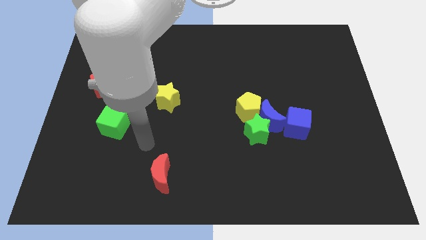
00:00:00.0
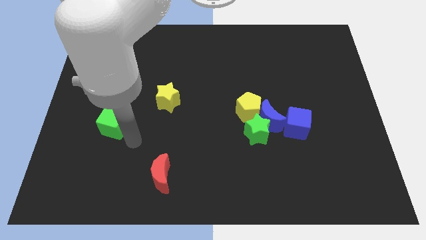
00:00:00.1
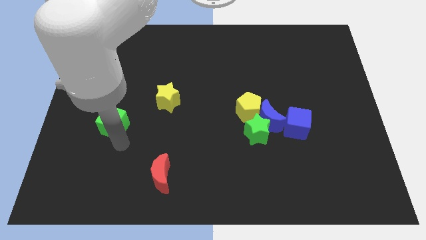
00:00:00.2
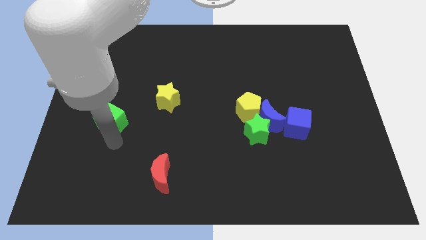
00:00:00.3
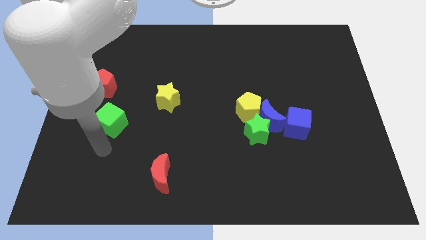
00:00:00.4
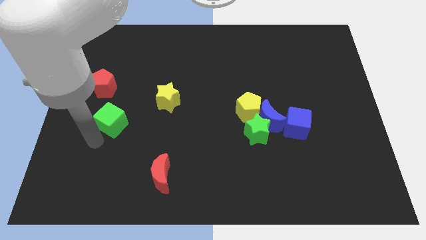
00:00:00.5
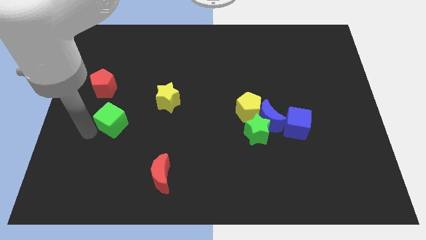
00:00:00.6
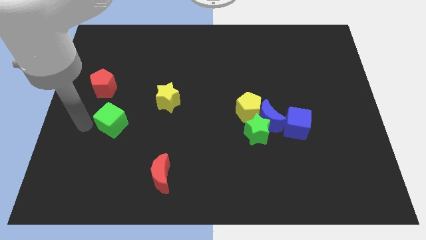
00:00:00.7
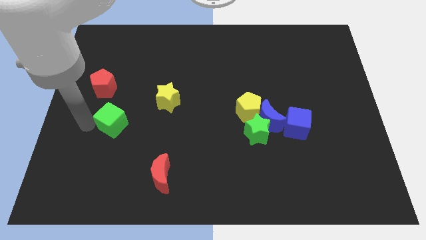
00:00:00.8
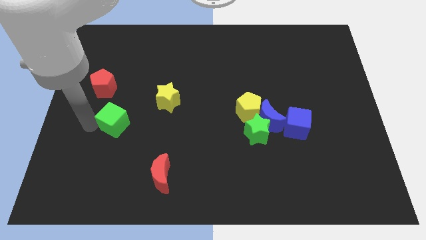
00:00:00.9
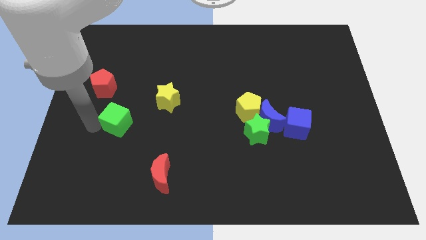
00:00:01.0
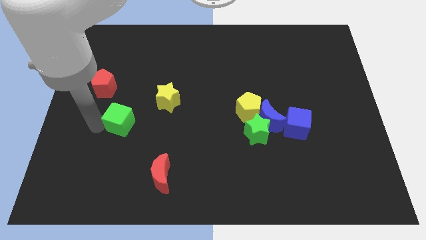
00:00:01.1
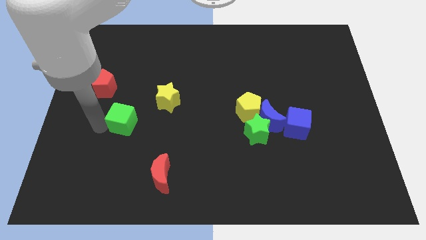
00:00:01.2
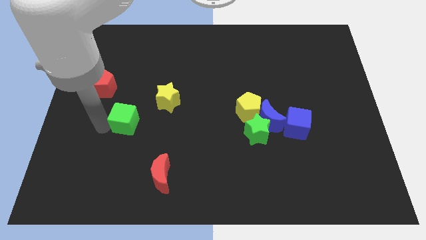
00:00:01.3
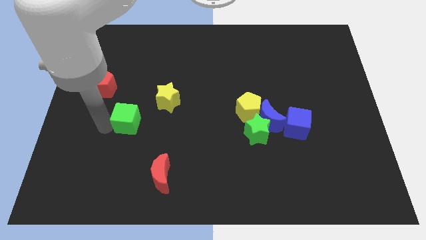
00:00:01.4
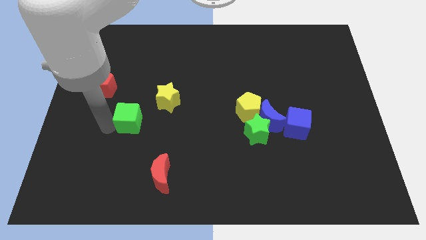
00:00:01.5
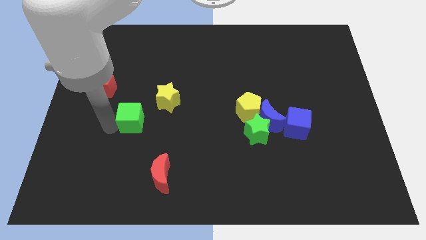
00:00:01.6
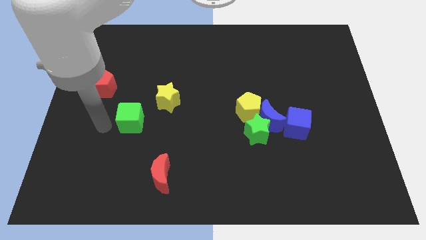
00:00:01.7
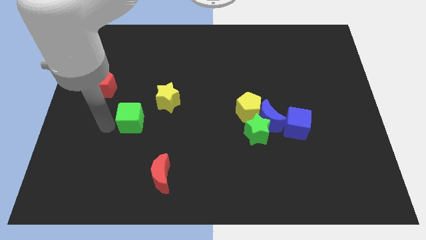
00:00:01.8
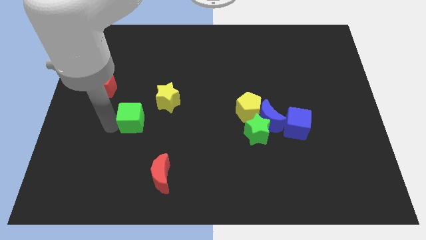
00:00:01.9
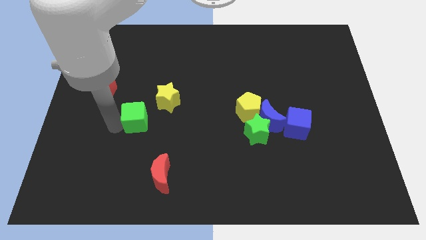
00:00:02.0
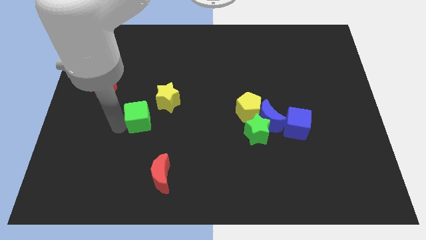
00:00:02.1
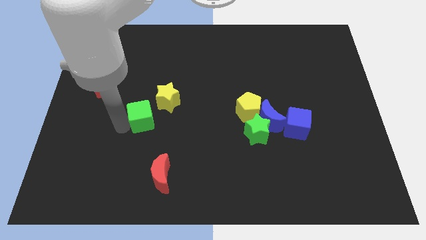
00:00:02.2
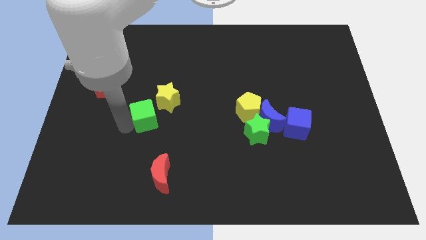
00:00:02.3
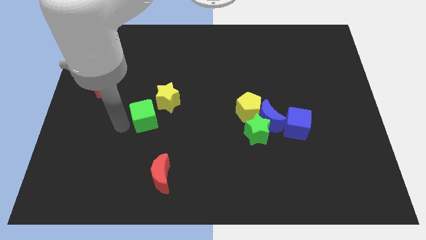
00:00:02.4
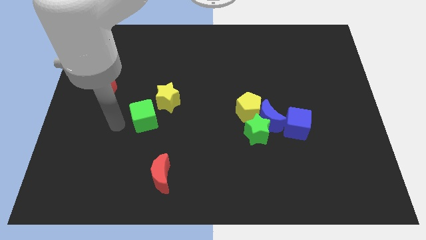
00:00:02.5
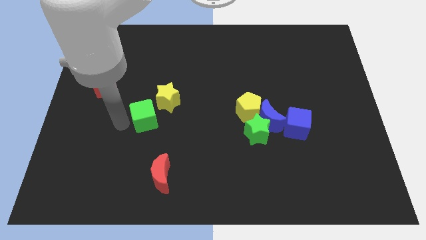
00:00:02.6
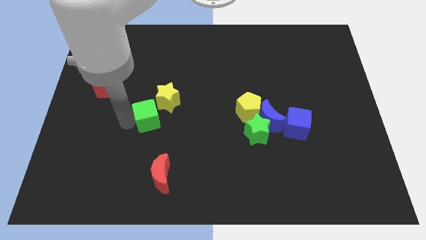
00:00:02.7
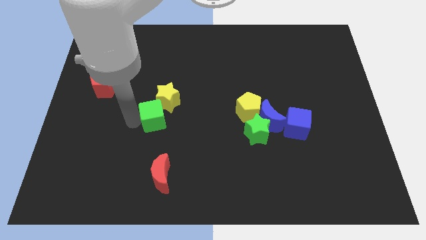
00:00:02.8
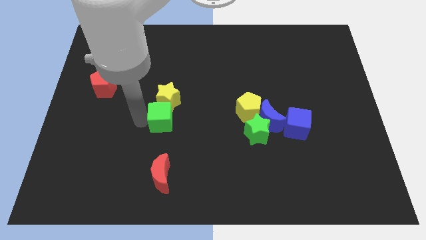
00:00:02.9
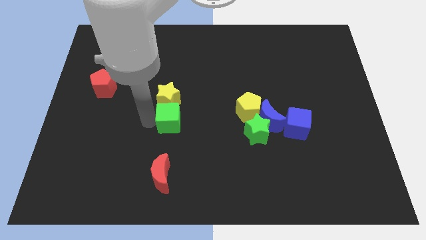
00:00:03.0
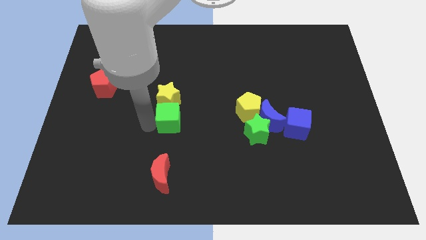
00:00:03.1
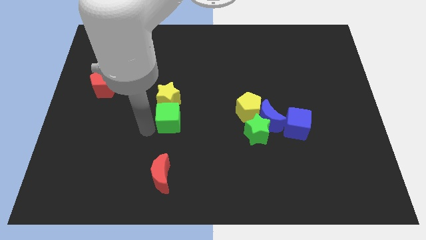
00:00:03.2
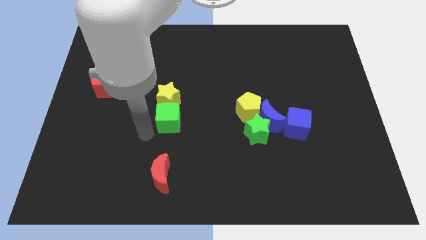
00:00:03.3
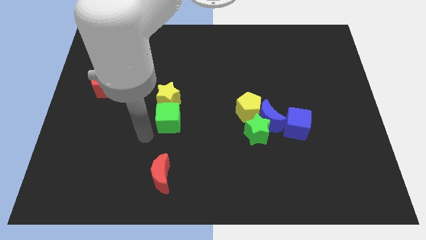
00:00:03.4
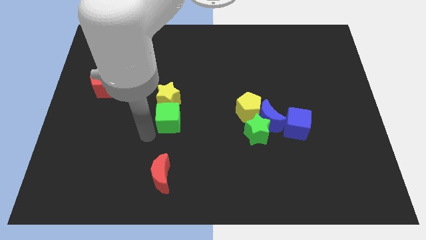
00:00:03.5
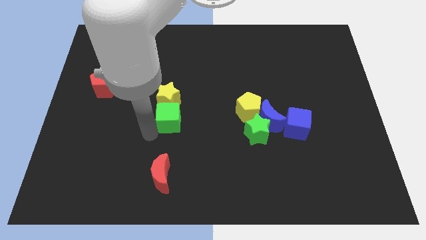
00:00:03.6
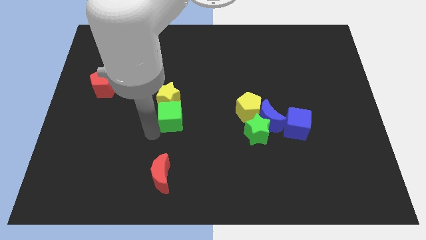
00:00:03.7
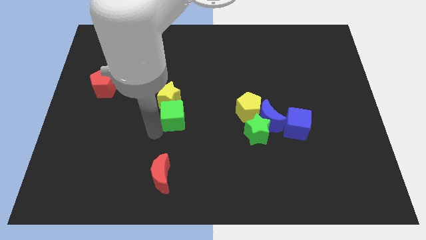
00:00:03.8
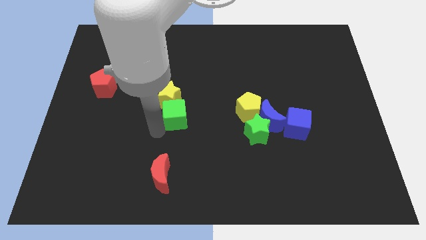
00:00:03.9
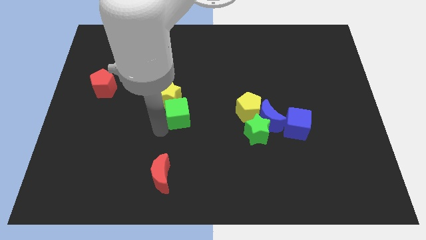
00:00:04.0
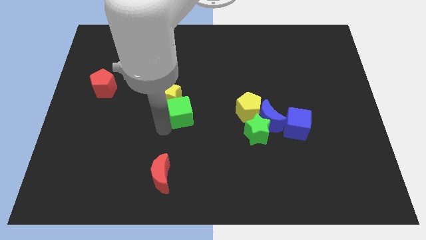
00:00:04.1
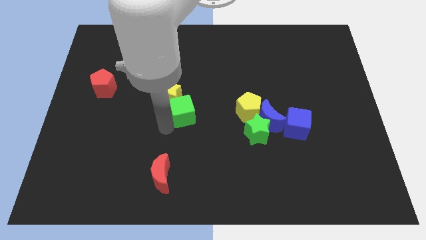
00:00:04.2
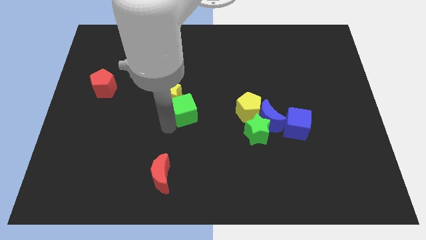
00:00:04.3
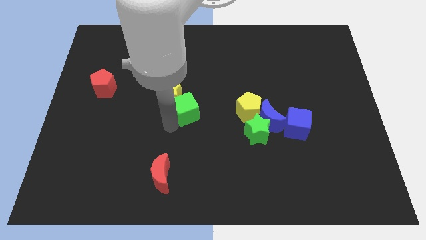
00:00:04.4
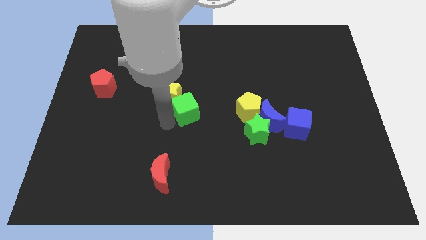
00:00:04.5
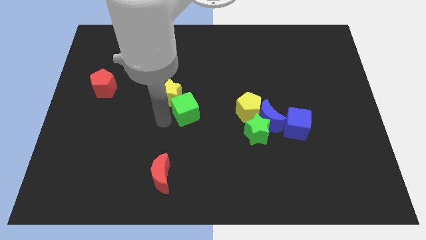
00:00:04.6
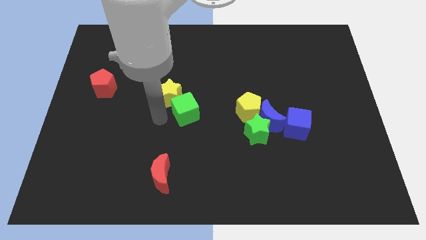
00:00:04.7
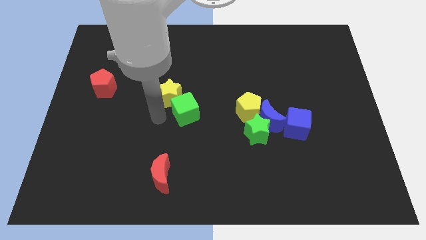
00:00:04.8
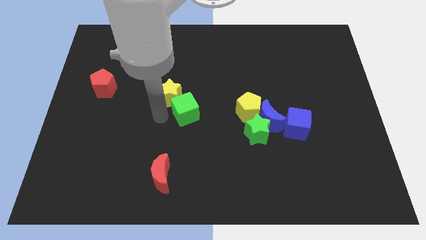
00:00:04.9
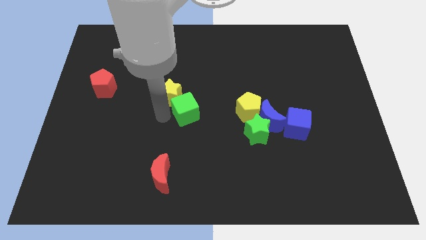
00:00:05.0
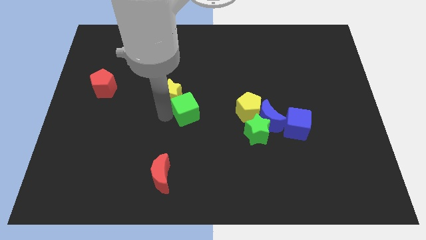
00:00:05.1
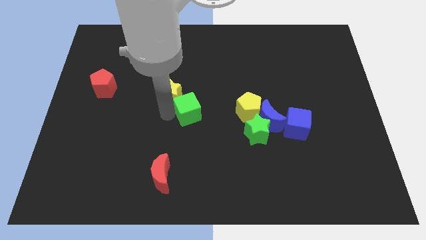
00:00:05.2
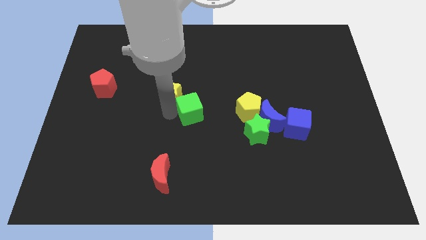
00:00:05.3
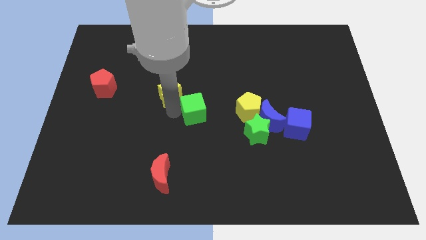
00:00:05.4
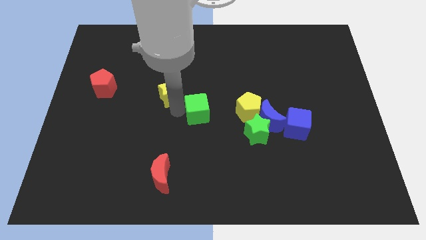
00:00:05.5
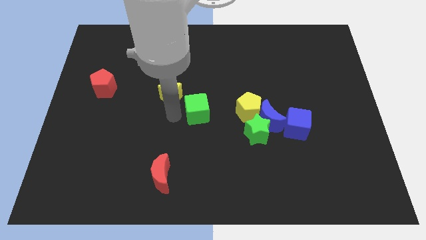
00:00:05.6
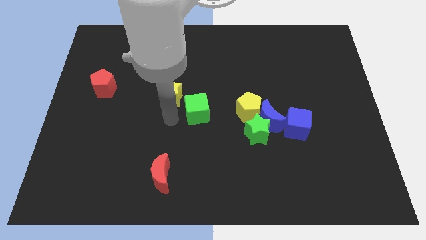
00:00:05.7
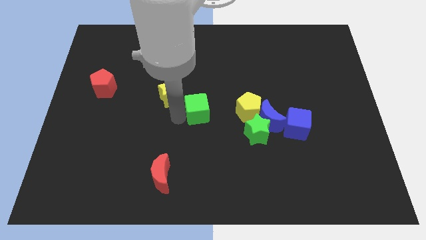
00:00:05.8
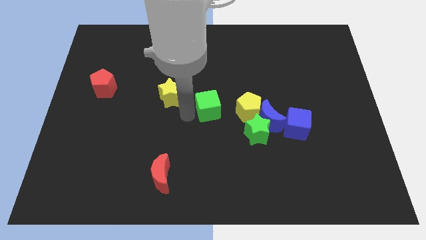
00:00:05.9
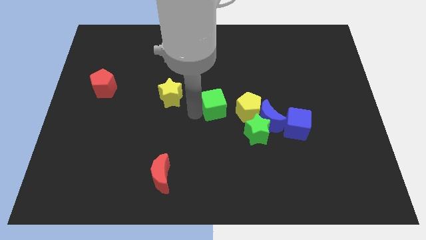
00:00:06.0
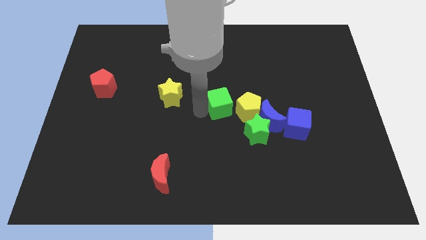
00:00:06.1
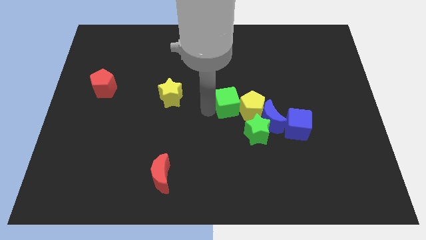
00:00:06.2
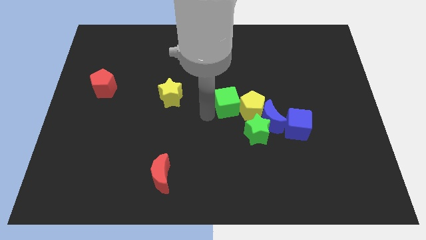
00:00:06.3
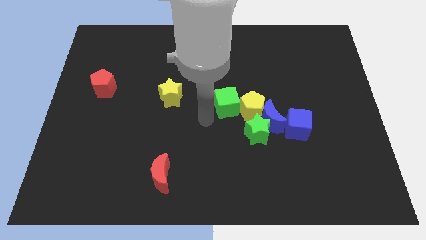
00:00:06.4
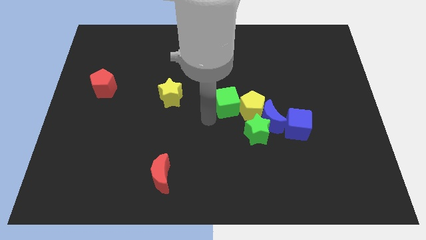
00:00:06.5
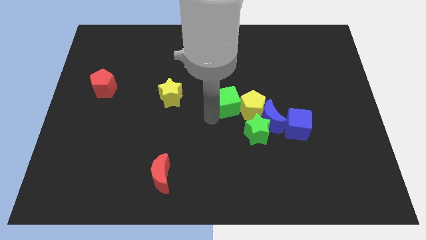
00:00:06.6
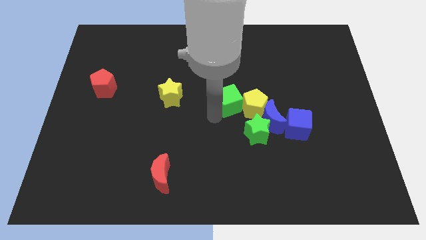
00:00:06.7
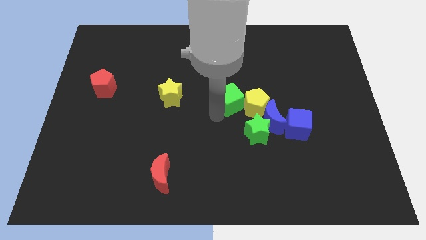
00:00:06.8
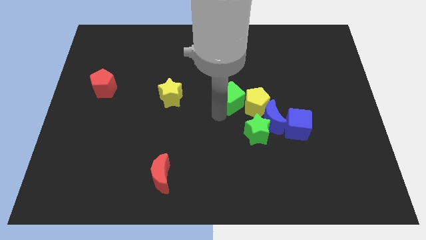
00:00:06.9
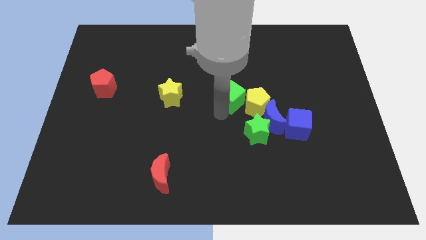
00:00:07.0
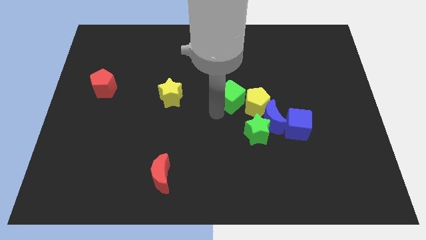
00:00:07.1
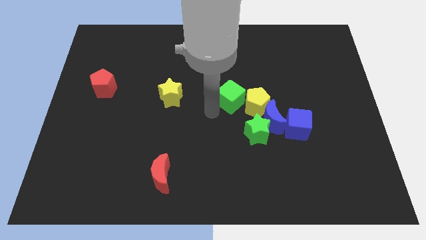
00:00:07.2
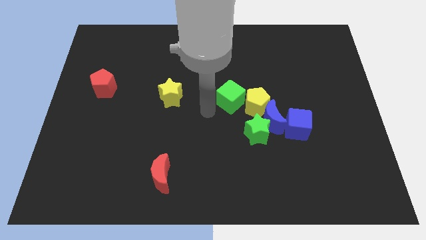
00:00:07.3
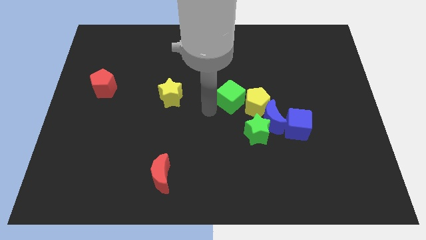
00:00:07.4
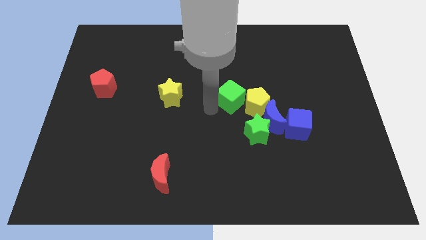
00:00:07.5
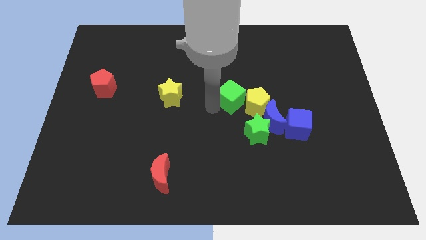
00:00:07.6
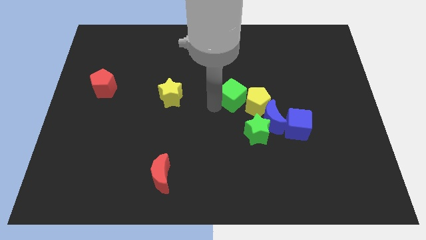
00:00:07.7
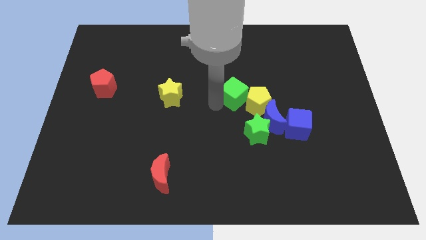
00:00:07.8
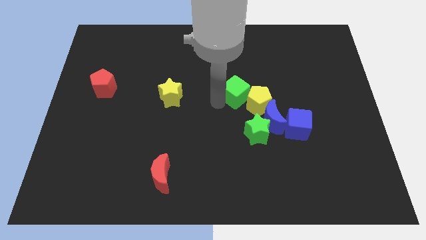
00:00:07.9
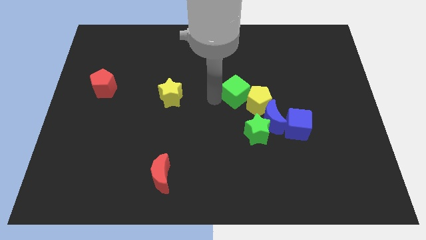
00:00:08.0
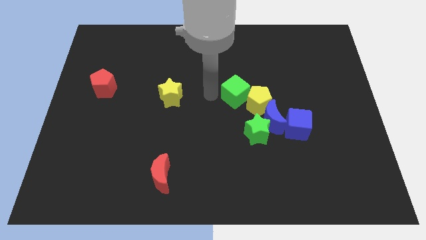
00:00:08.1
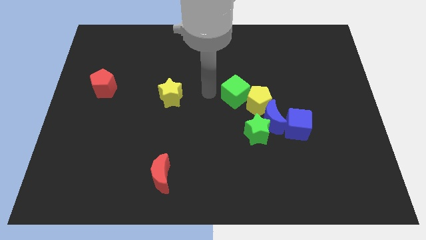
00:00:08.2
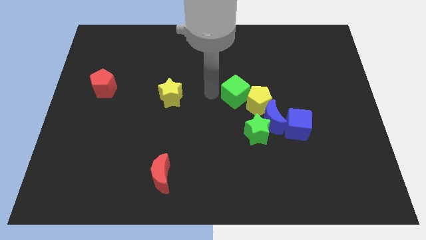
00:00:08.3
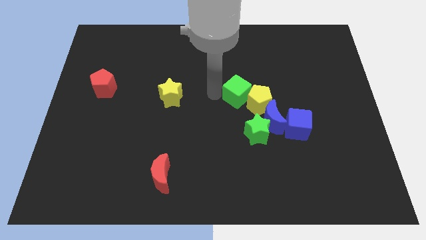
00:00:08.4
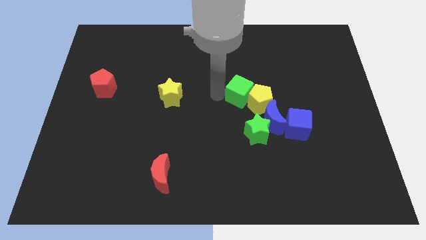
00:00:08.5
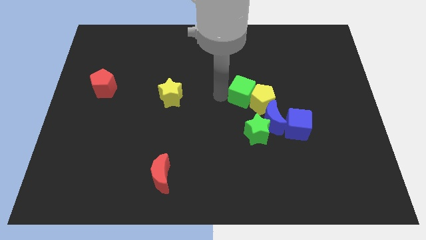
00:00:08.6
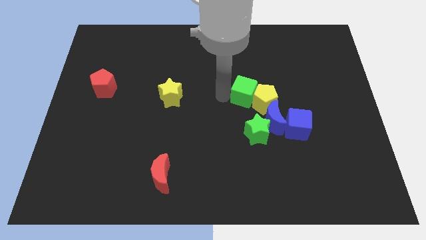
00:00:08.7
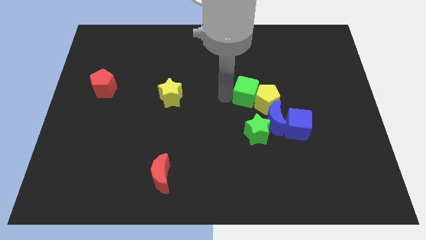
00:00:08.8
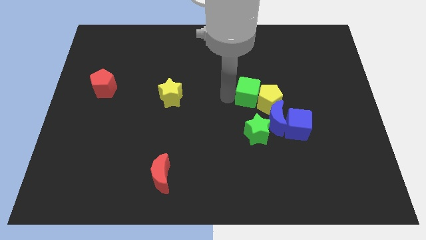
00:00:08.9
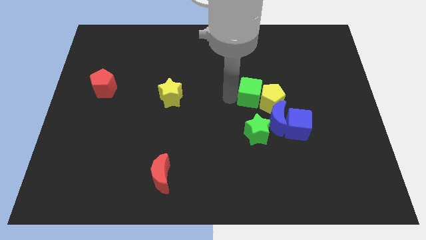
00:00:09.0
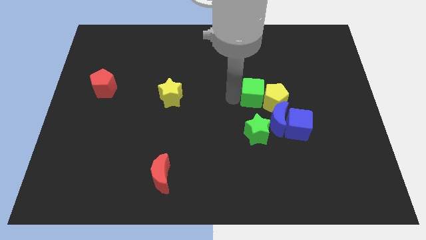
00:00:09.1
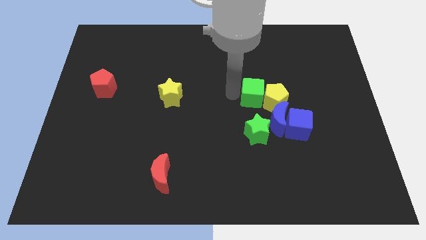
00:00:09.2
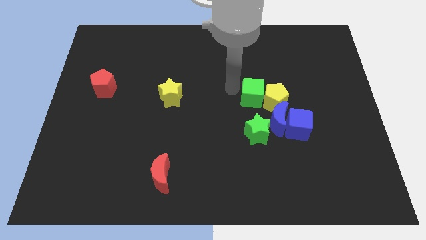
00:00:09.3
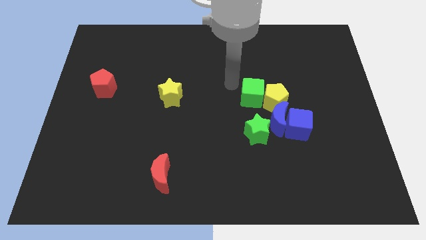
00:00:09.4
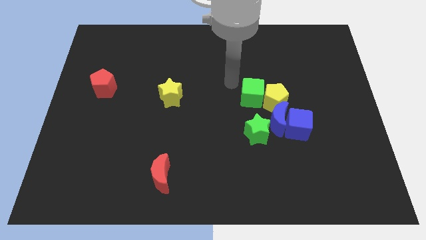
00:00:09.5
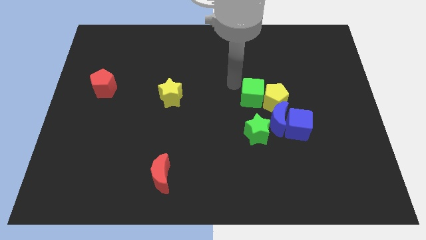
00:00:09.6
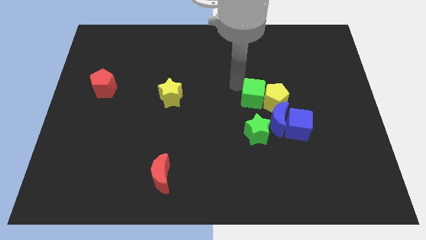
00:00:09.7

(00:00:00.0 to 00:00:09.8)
slide the green cube to the top left of the blue cube
